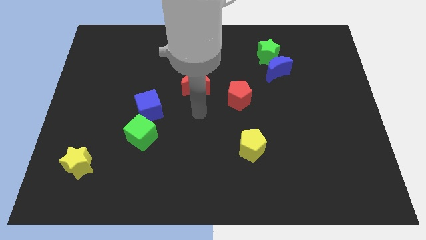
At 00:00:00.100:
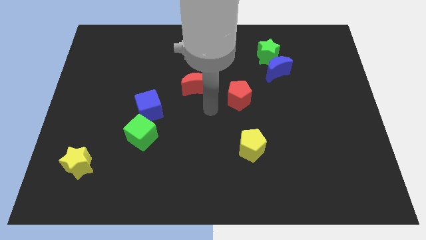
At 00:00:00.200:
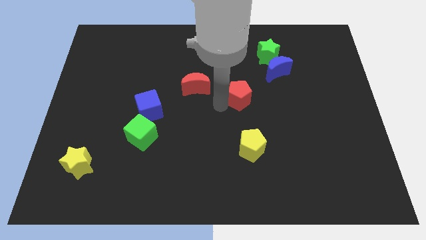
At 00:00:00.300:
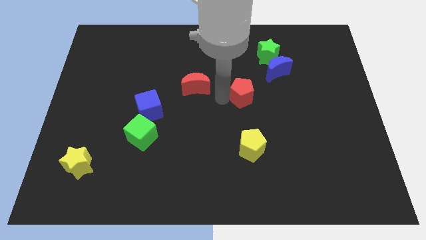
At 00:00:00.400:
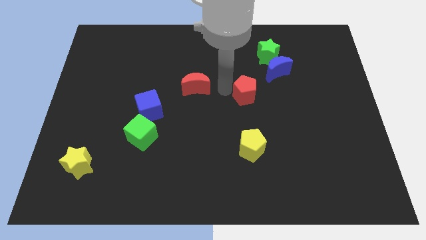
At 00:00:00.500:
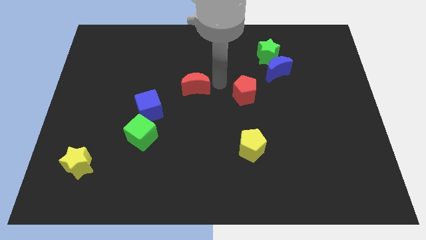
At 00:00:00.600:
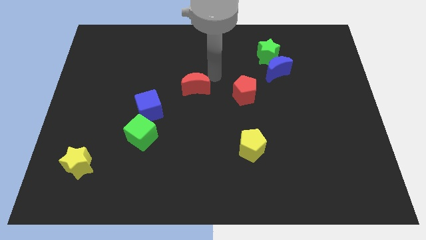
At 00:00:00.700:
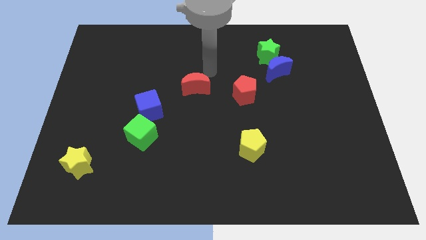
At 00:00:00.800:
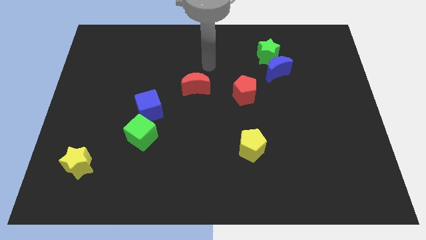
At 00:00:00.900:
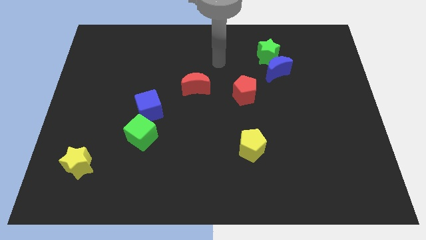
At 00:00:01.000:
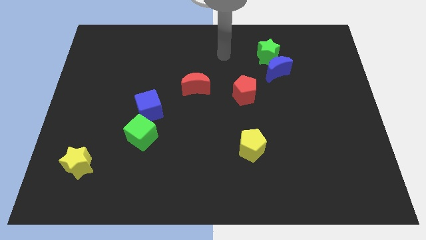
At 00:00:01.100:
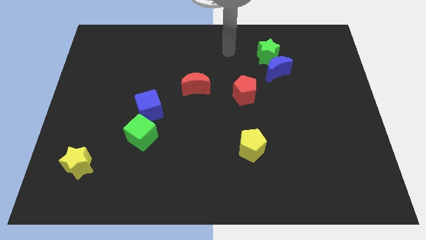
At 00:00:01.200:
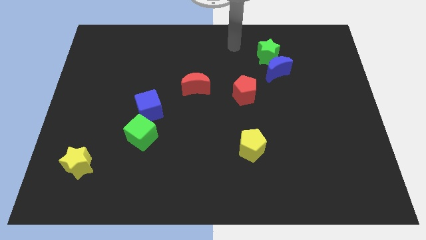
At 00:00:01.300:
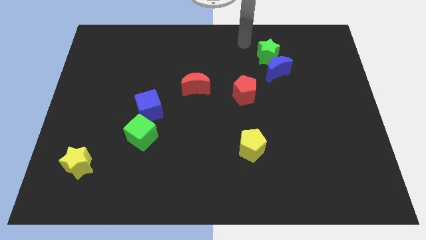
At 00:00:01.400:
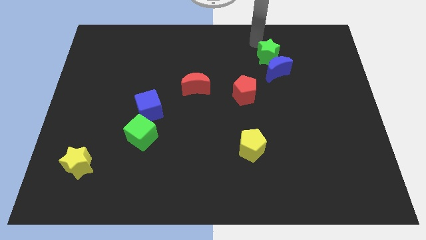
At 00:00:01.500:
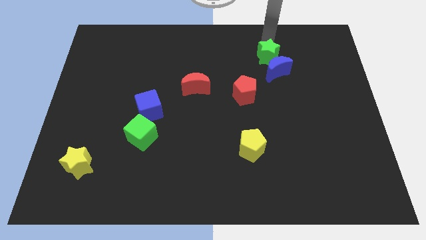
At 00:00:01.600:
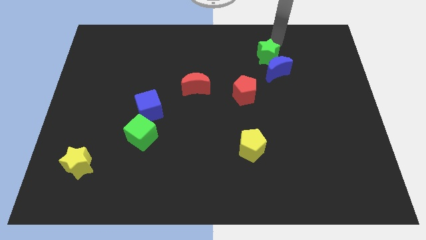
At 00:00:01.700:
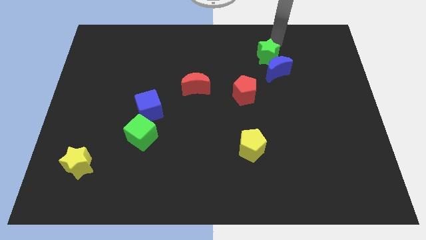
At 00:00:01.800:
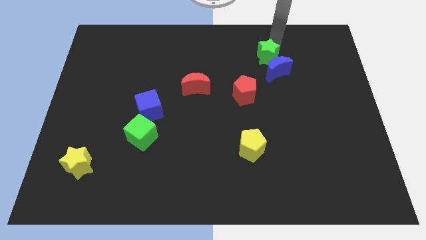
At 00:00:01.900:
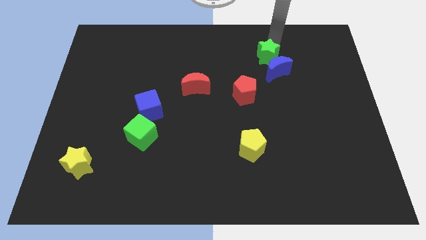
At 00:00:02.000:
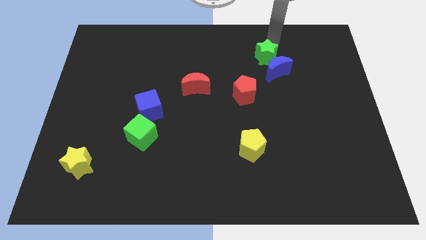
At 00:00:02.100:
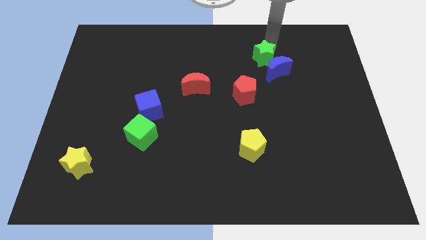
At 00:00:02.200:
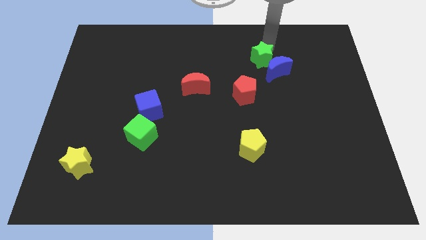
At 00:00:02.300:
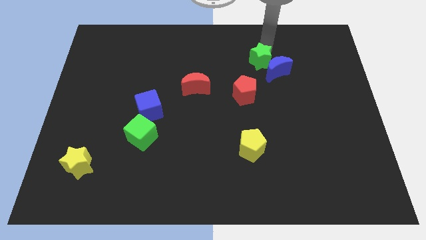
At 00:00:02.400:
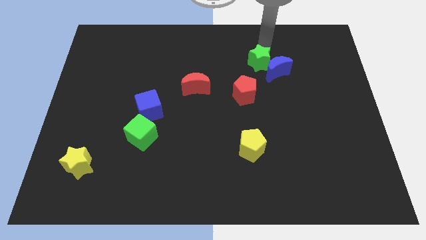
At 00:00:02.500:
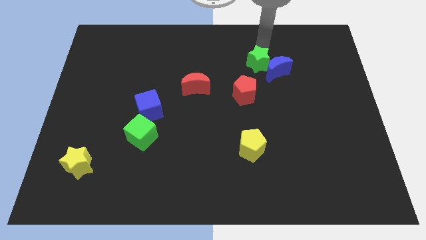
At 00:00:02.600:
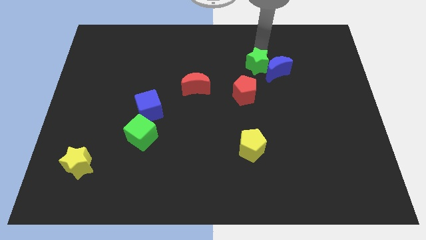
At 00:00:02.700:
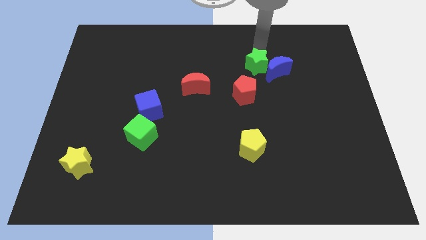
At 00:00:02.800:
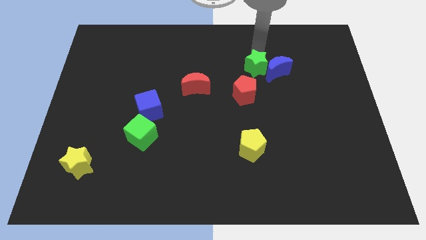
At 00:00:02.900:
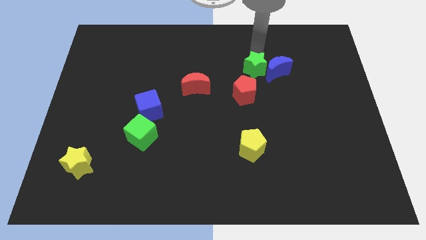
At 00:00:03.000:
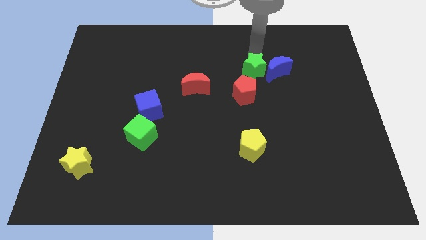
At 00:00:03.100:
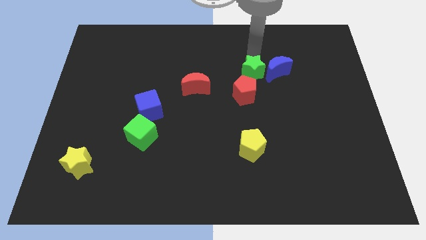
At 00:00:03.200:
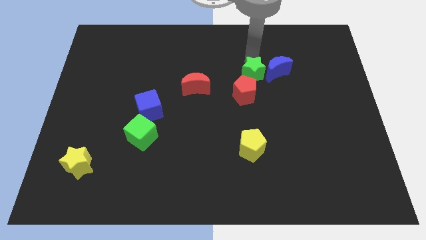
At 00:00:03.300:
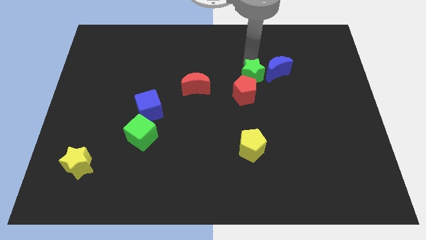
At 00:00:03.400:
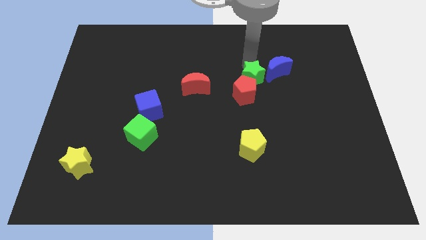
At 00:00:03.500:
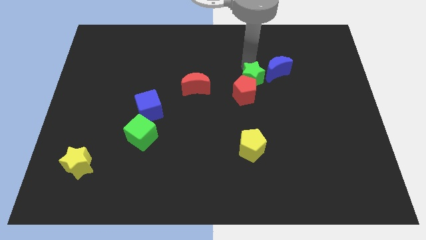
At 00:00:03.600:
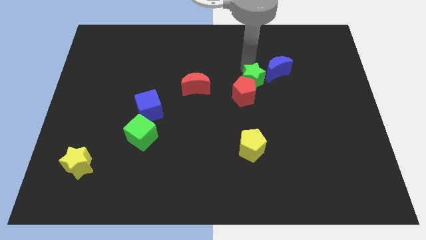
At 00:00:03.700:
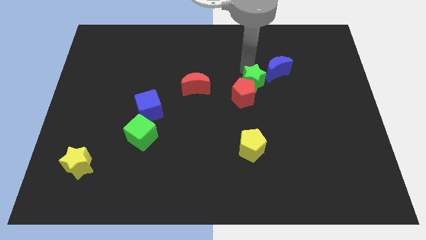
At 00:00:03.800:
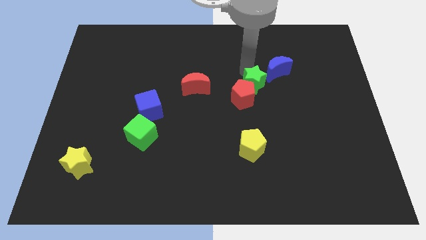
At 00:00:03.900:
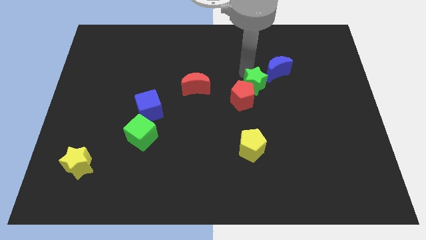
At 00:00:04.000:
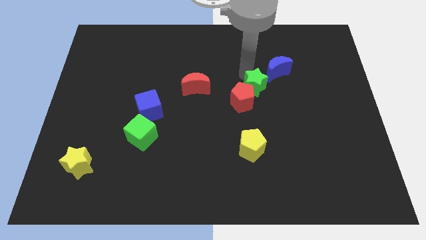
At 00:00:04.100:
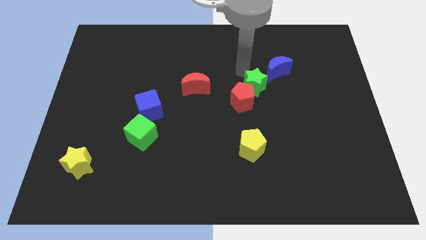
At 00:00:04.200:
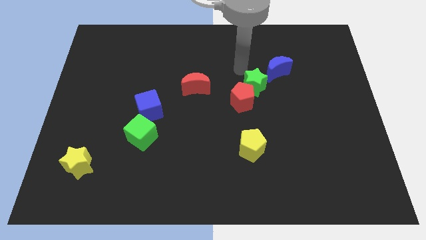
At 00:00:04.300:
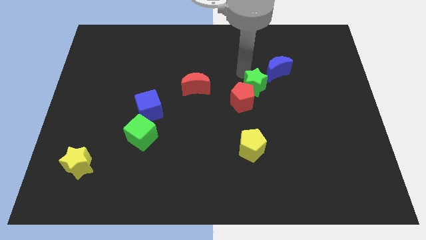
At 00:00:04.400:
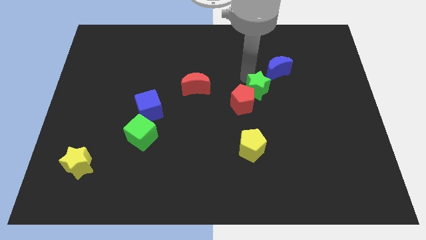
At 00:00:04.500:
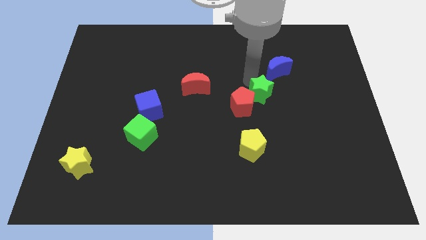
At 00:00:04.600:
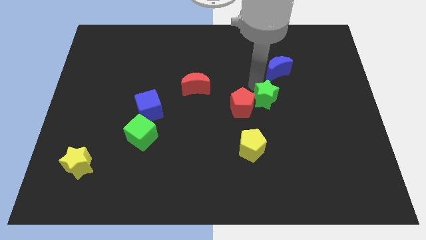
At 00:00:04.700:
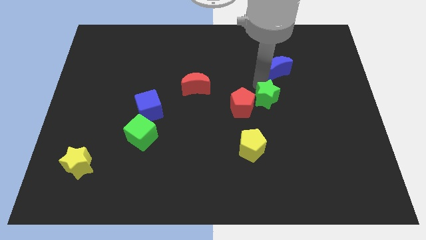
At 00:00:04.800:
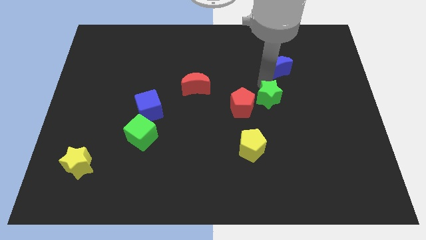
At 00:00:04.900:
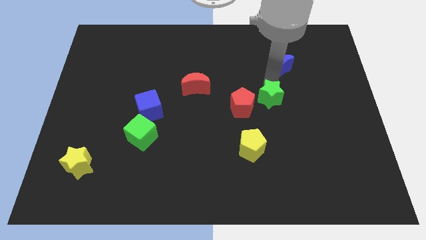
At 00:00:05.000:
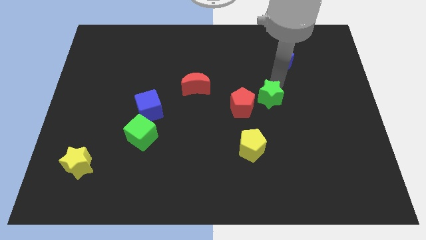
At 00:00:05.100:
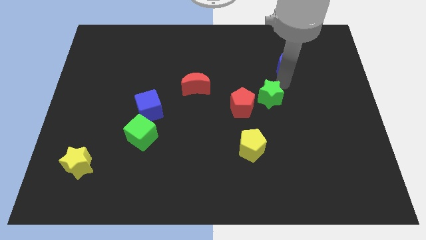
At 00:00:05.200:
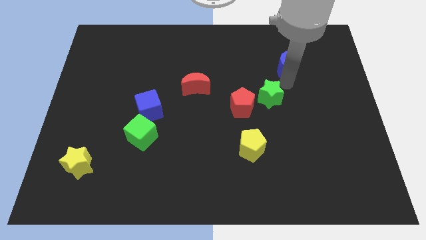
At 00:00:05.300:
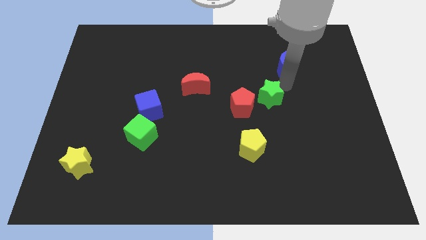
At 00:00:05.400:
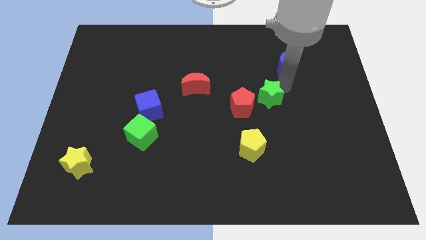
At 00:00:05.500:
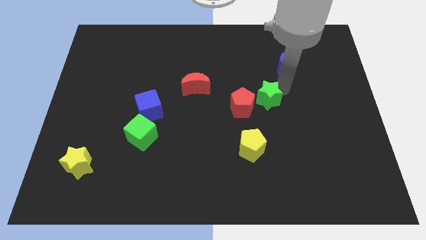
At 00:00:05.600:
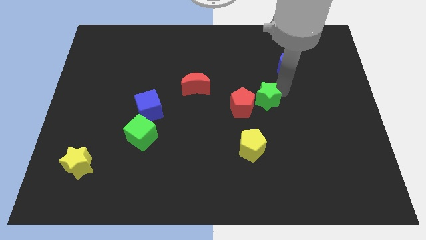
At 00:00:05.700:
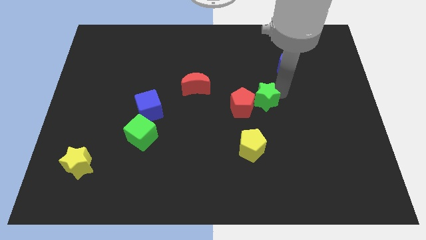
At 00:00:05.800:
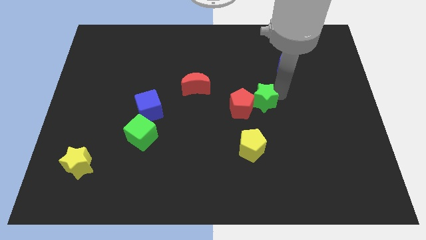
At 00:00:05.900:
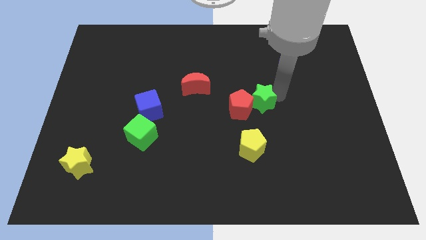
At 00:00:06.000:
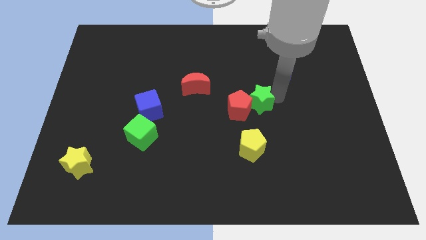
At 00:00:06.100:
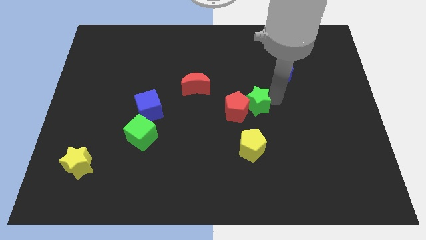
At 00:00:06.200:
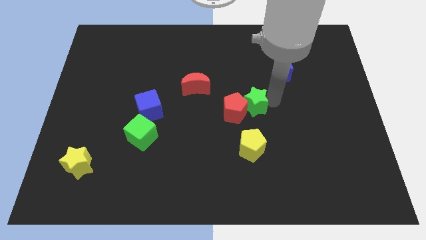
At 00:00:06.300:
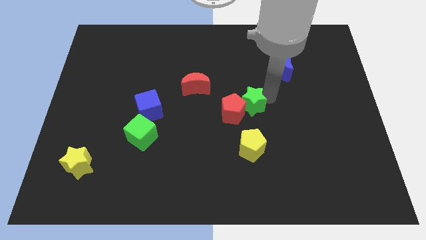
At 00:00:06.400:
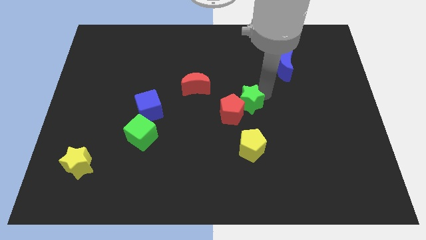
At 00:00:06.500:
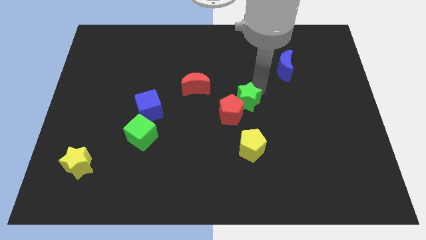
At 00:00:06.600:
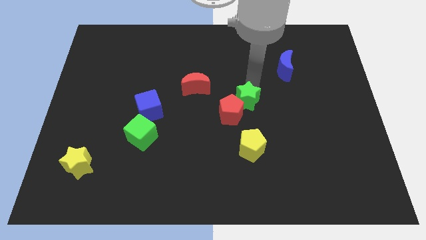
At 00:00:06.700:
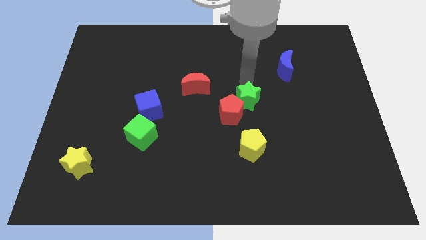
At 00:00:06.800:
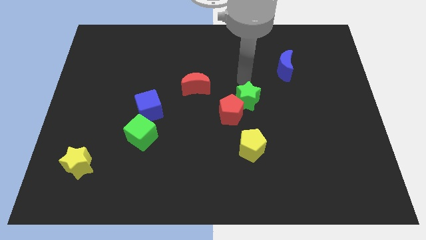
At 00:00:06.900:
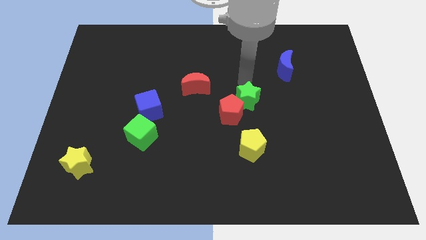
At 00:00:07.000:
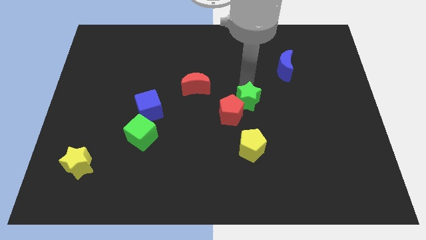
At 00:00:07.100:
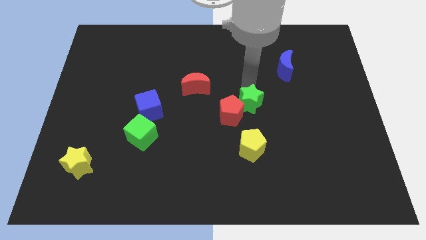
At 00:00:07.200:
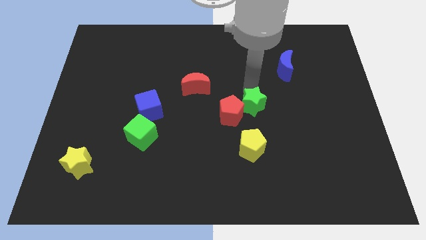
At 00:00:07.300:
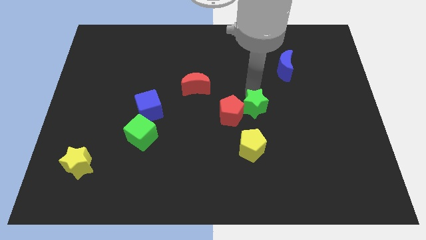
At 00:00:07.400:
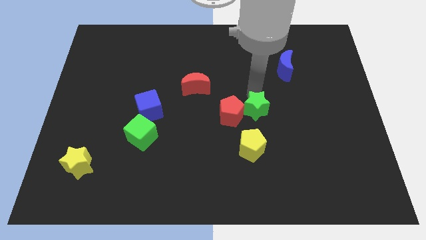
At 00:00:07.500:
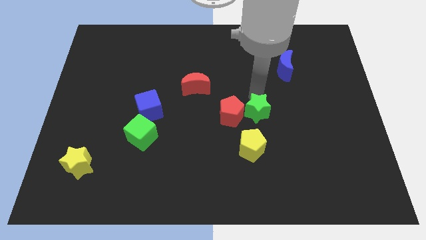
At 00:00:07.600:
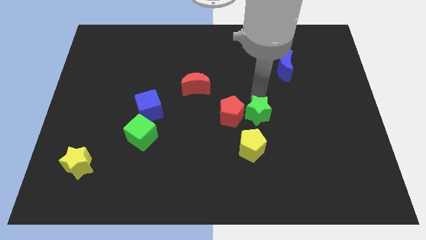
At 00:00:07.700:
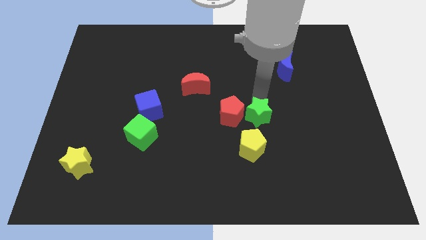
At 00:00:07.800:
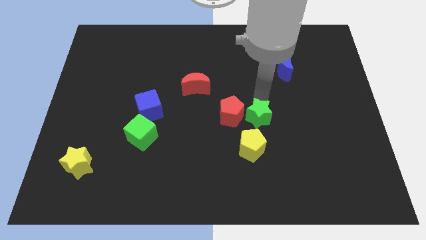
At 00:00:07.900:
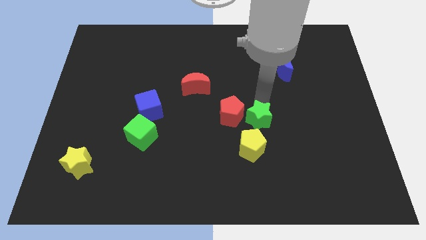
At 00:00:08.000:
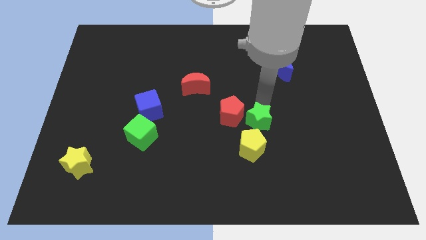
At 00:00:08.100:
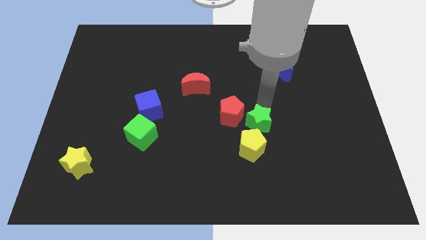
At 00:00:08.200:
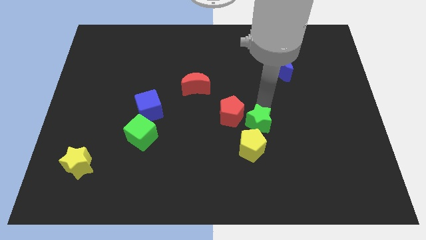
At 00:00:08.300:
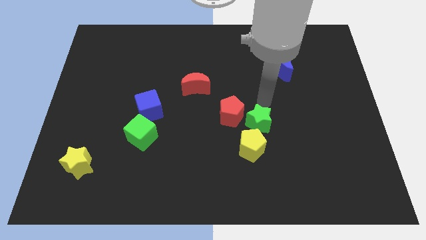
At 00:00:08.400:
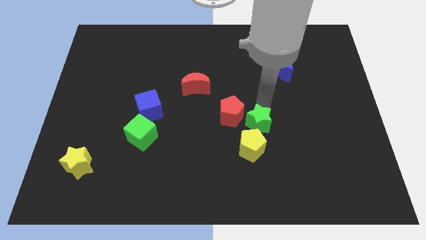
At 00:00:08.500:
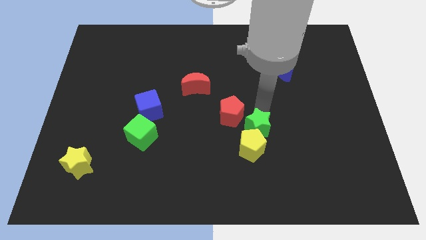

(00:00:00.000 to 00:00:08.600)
put the green star to the yellow pentagon
